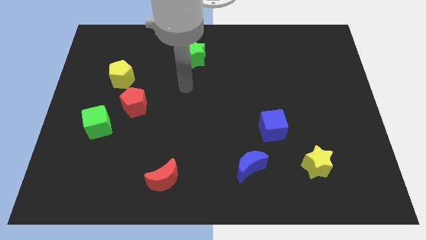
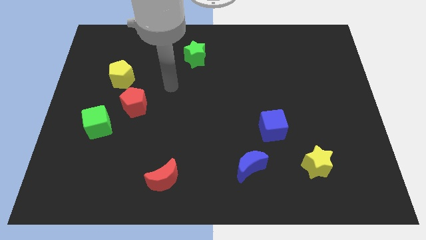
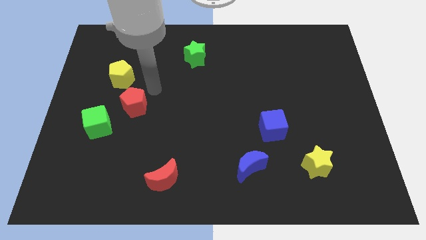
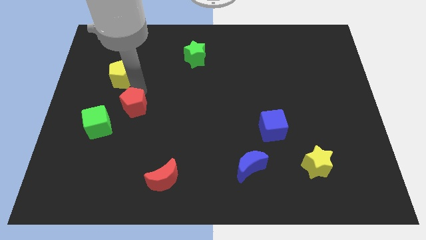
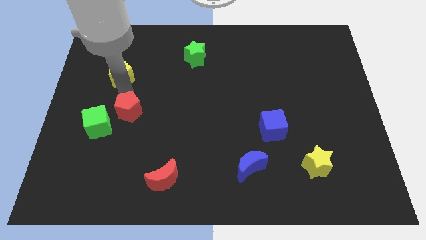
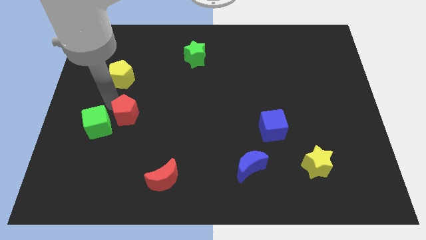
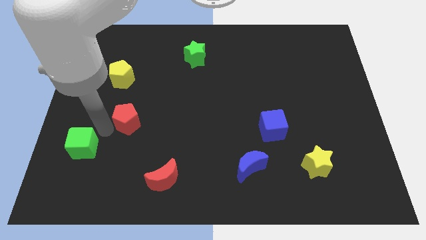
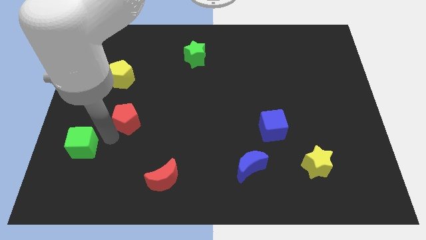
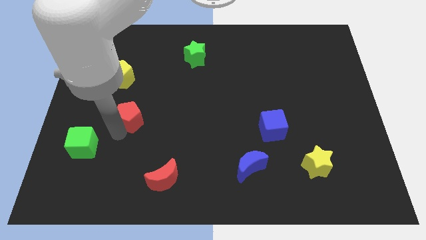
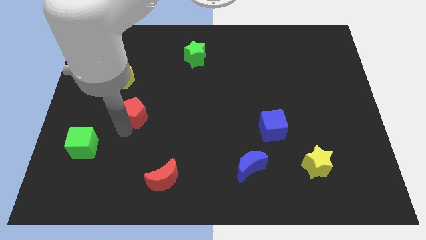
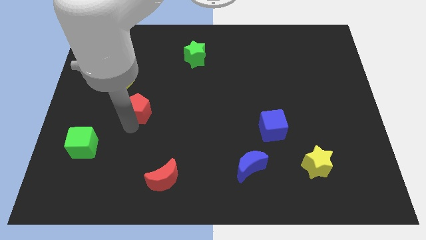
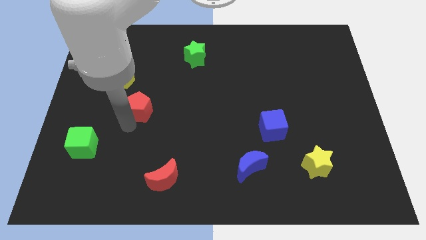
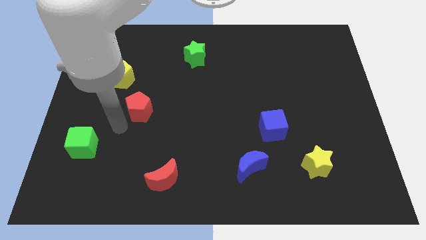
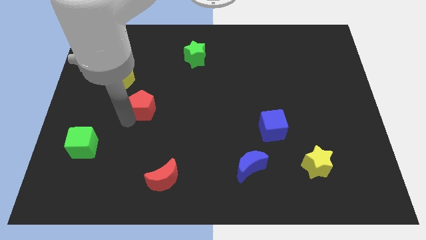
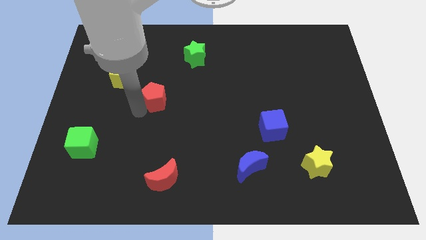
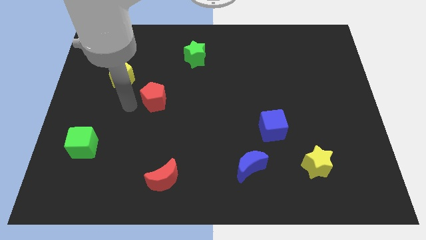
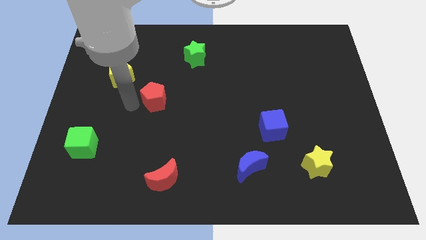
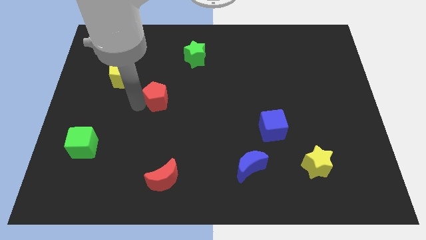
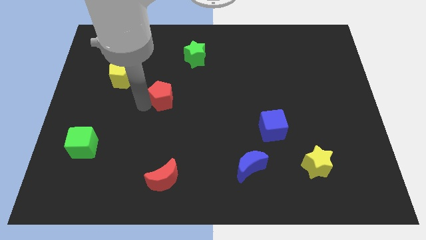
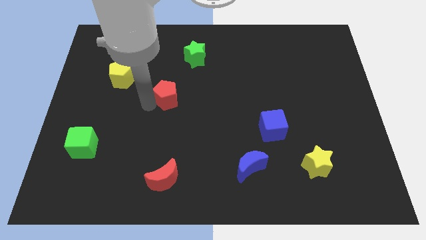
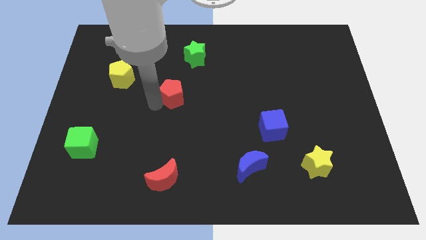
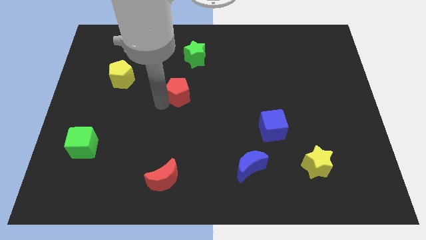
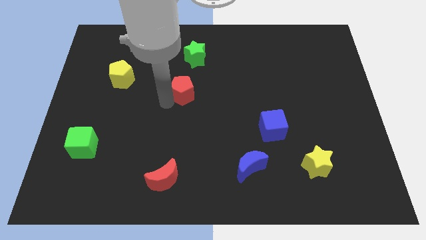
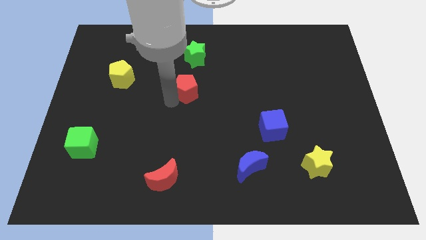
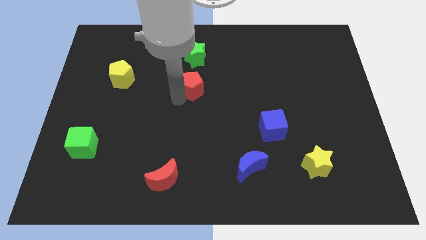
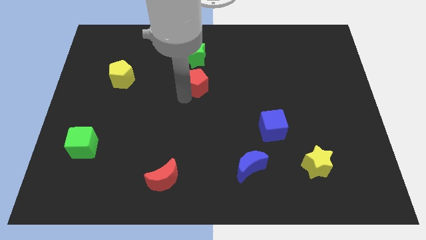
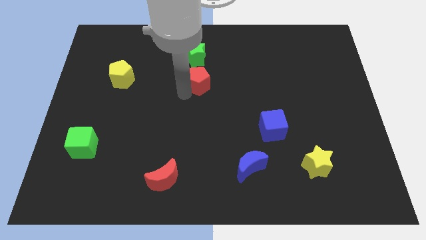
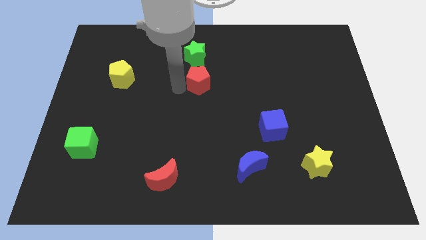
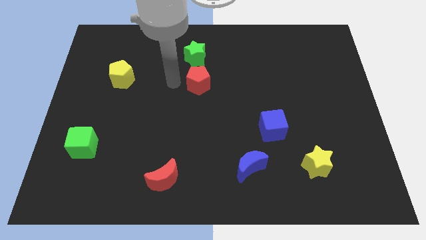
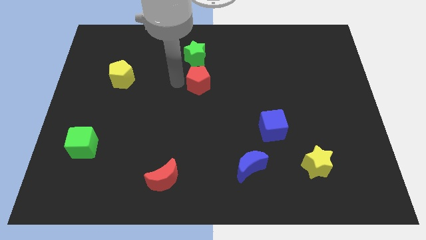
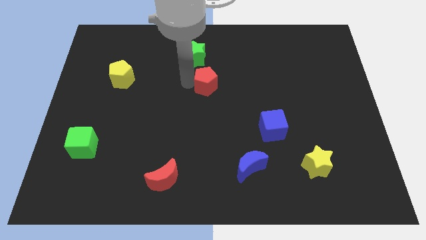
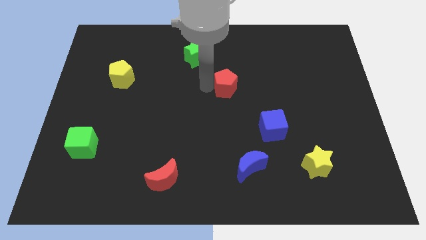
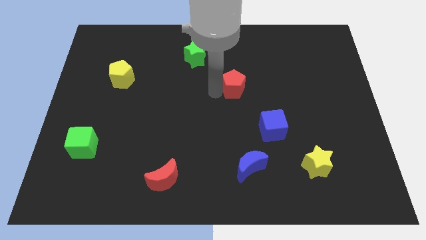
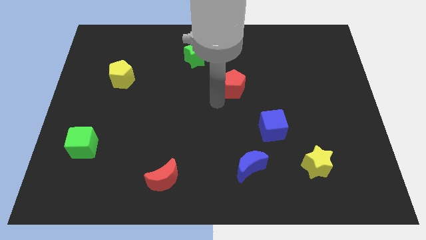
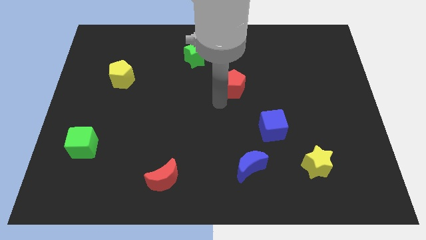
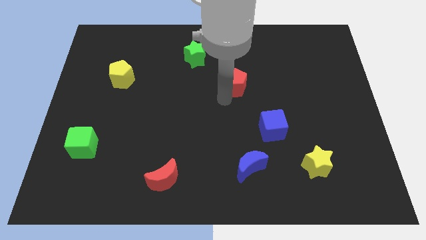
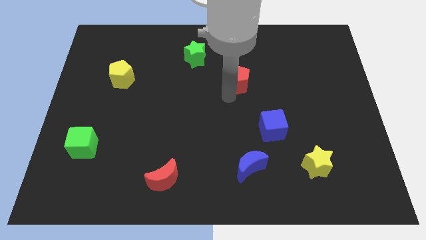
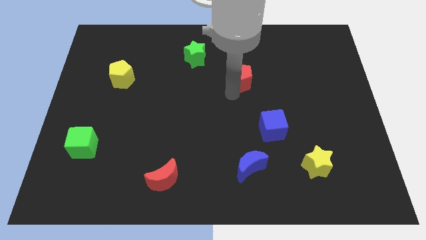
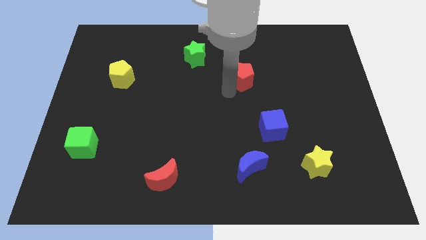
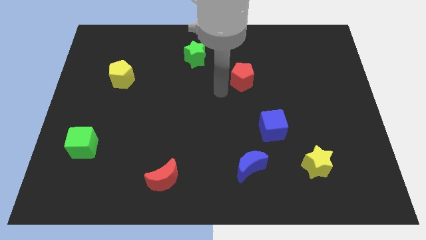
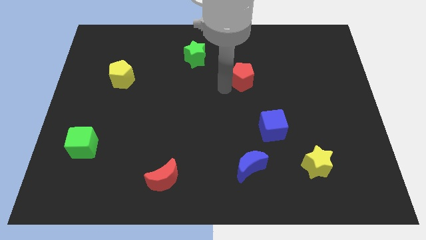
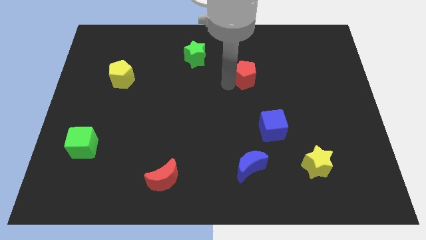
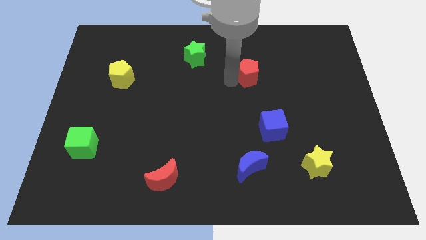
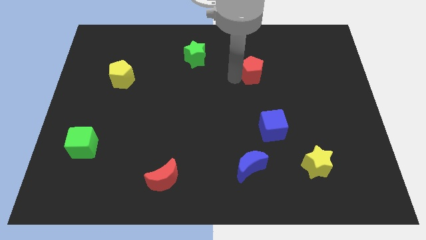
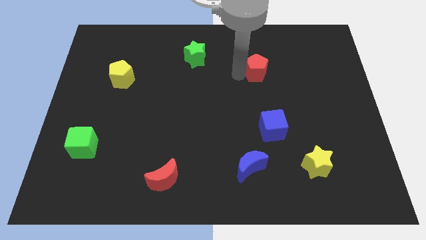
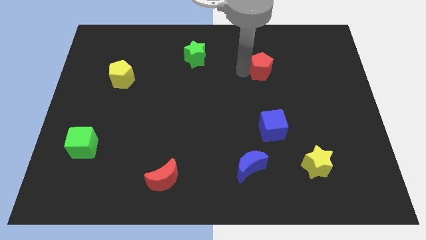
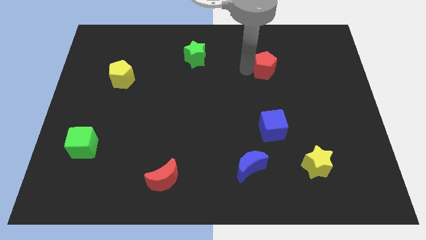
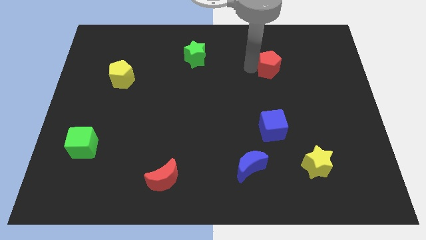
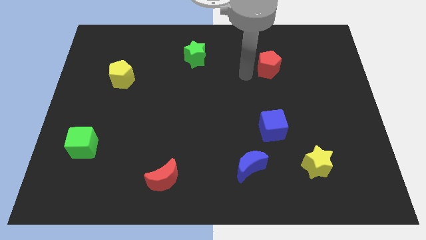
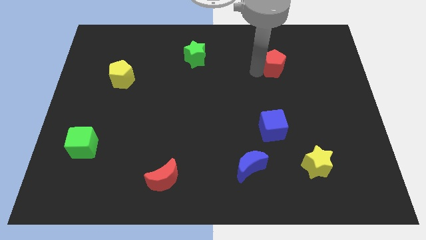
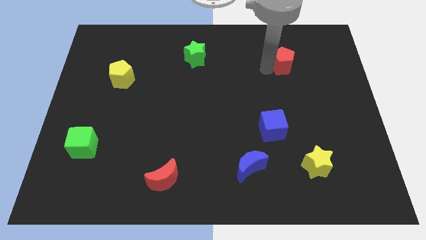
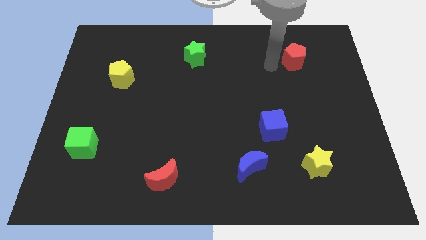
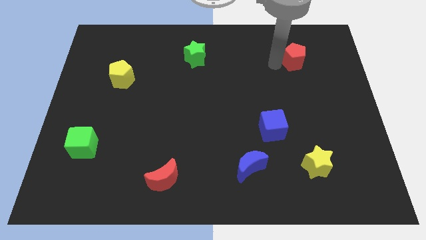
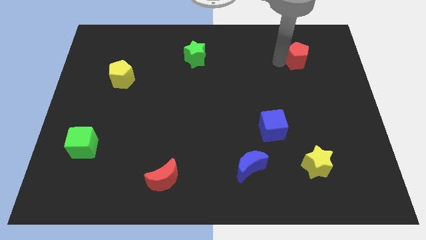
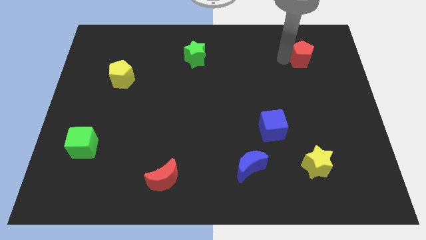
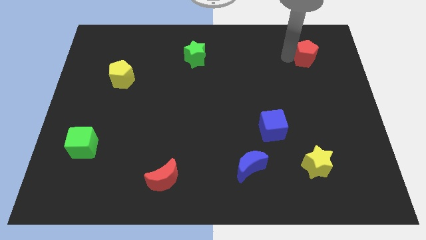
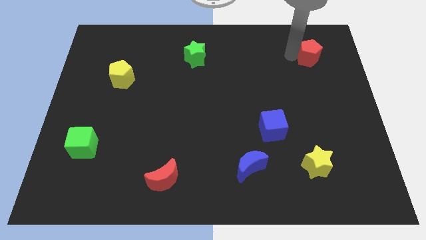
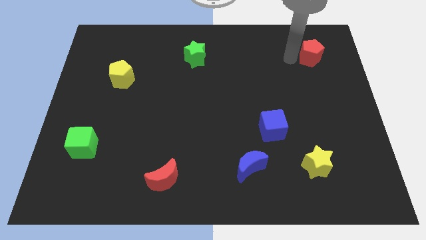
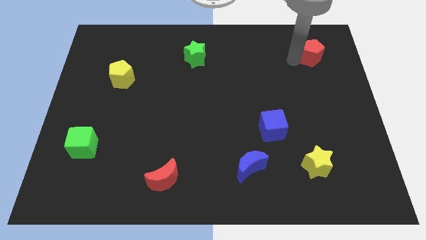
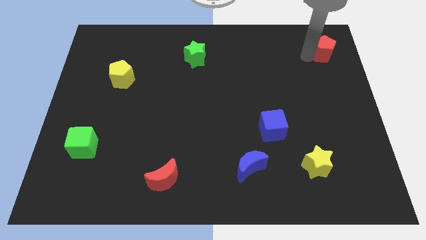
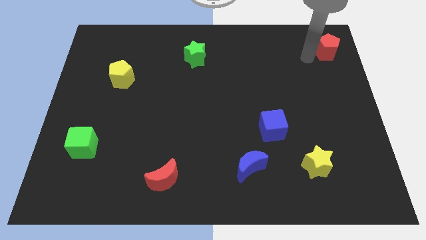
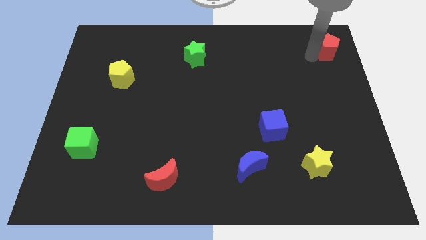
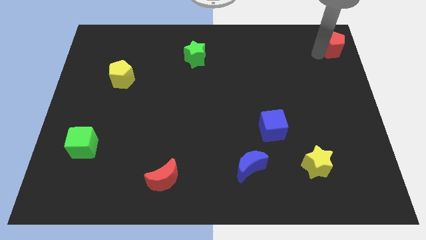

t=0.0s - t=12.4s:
put the red pentagon to the upper right corner

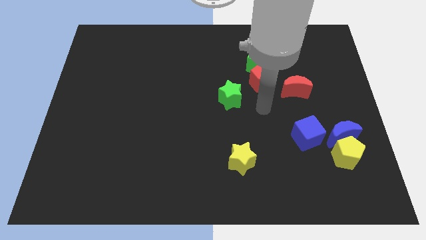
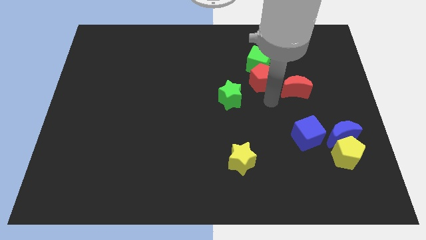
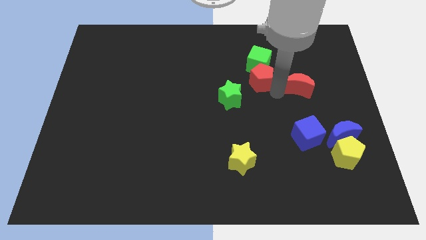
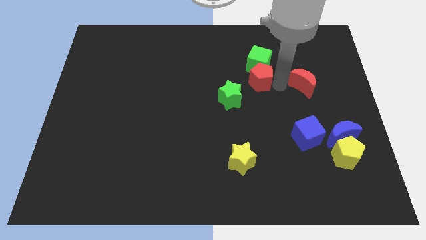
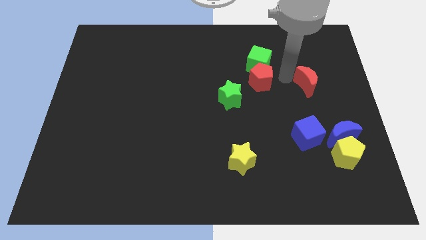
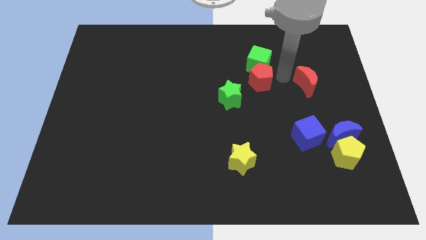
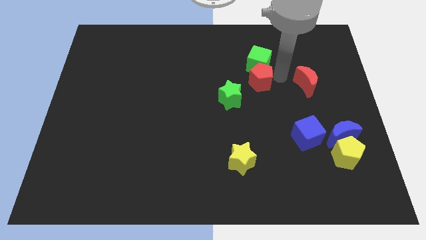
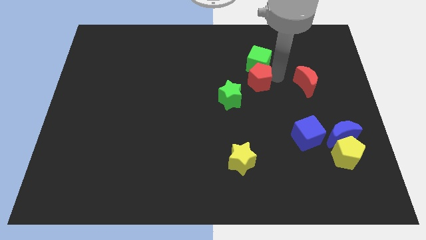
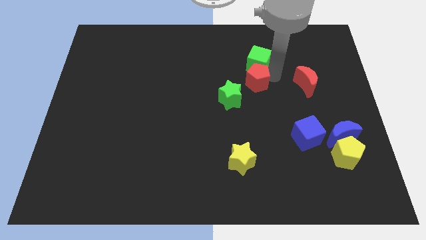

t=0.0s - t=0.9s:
put the red pentagon to the center
